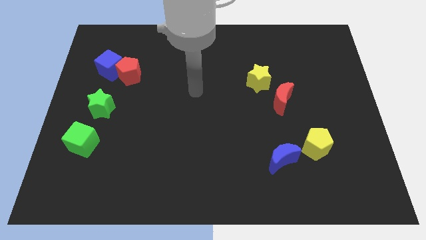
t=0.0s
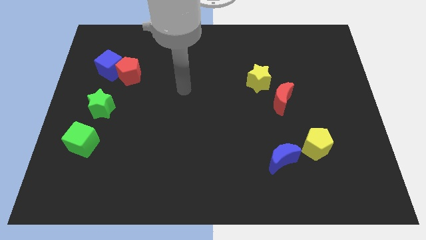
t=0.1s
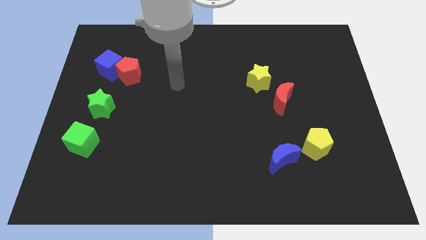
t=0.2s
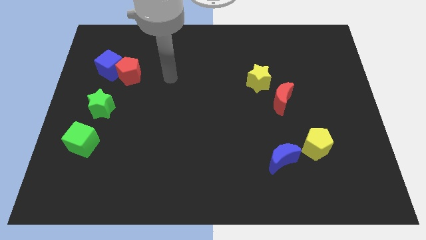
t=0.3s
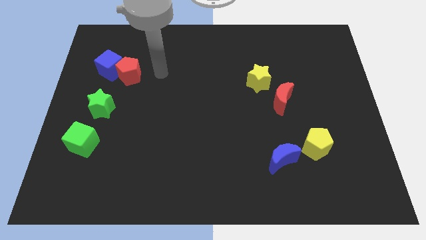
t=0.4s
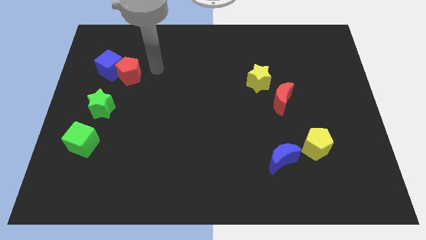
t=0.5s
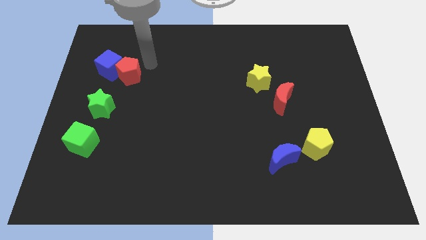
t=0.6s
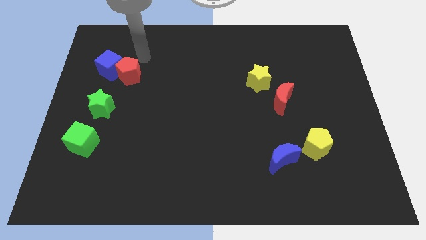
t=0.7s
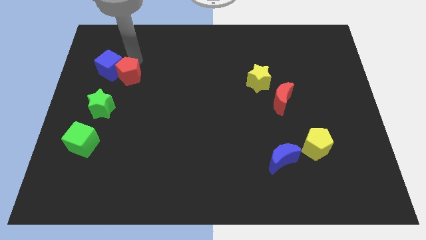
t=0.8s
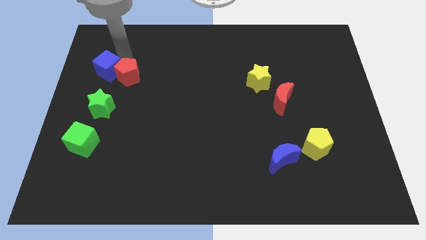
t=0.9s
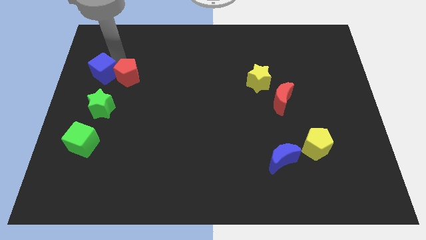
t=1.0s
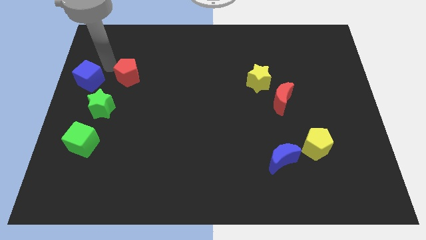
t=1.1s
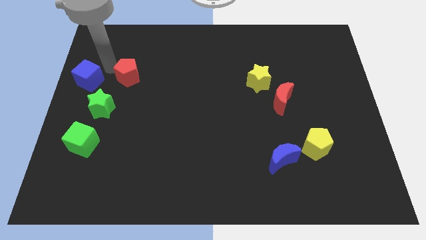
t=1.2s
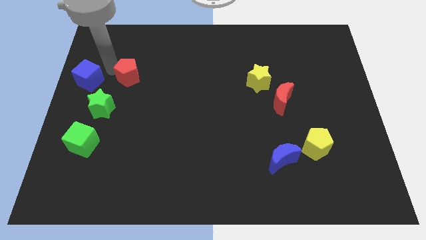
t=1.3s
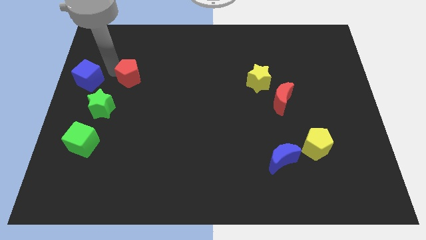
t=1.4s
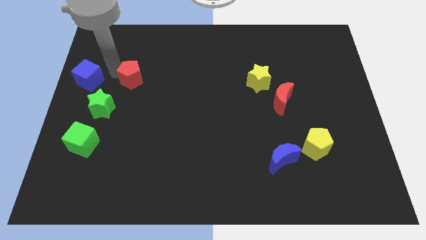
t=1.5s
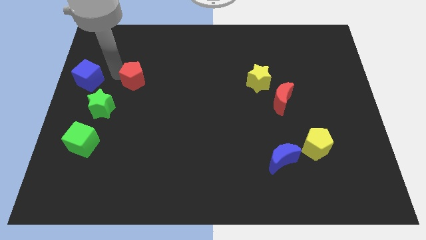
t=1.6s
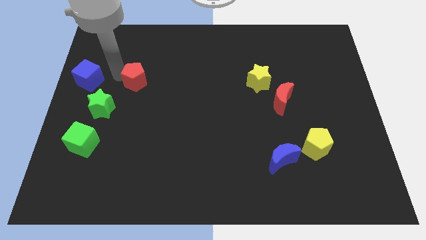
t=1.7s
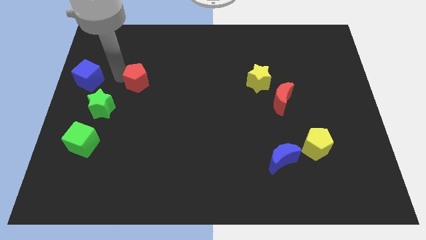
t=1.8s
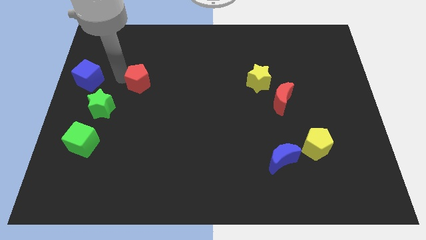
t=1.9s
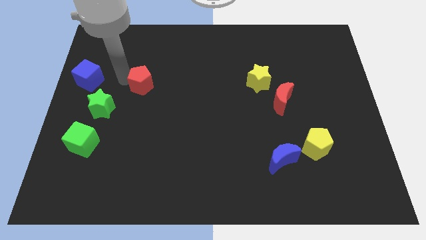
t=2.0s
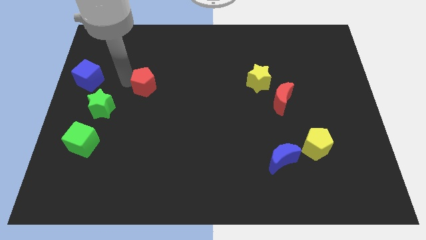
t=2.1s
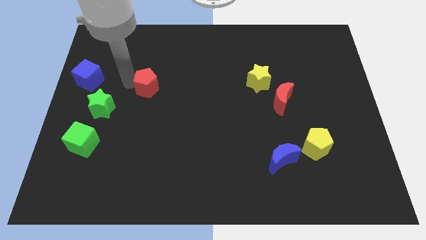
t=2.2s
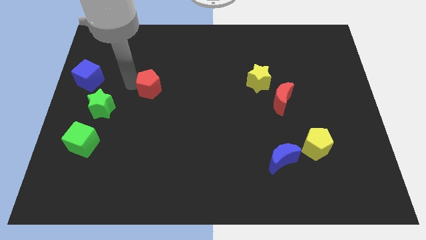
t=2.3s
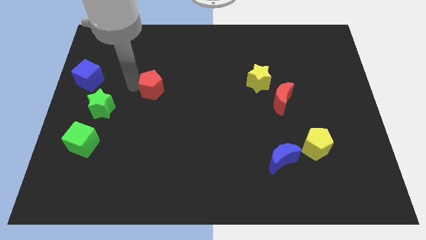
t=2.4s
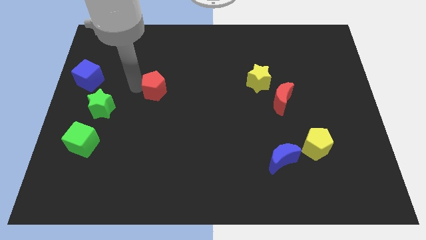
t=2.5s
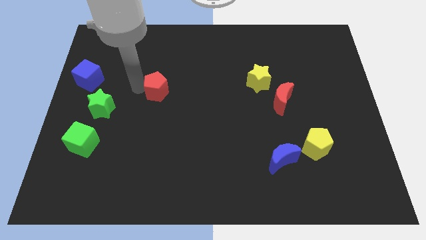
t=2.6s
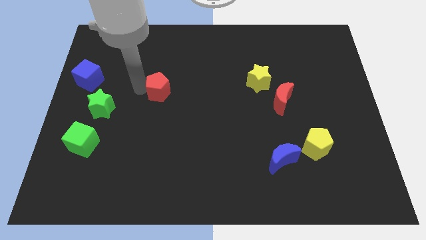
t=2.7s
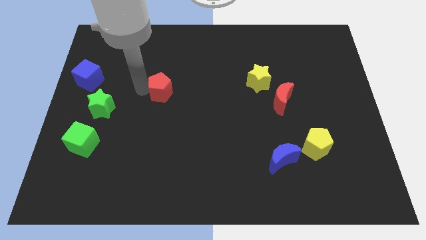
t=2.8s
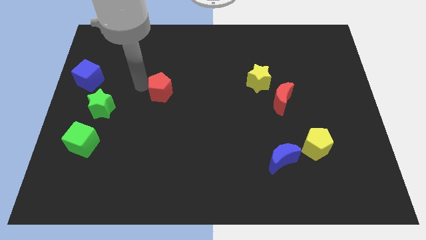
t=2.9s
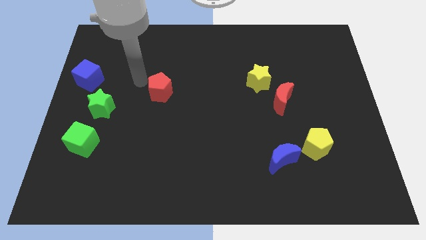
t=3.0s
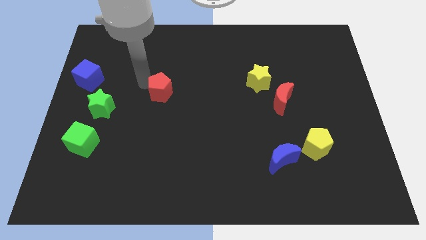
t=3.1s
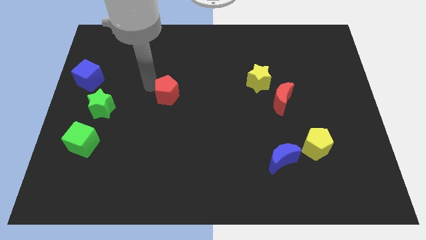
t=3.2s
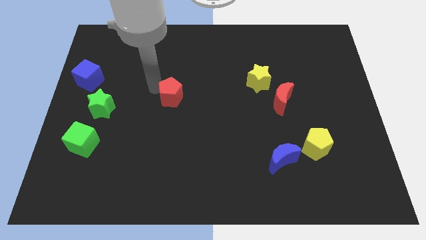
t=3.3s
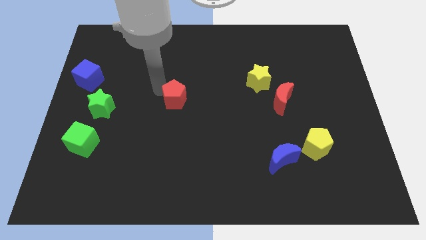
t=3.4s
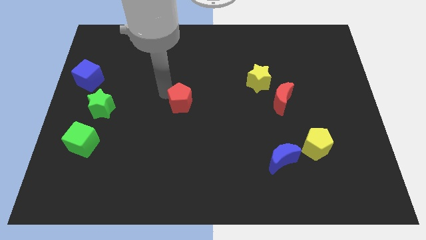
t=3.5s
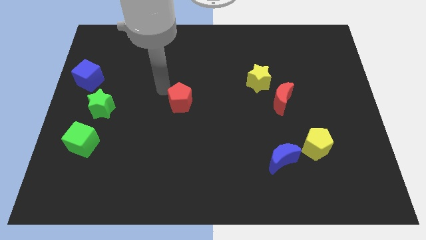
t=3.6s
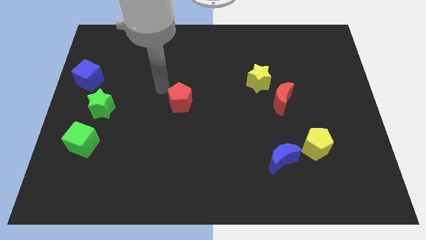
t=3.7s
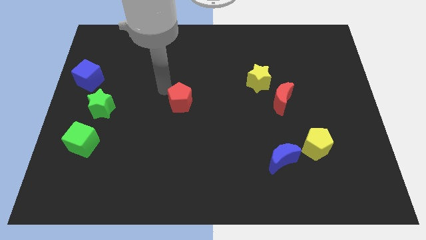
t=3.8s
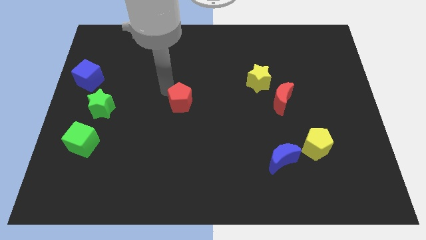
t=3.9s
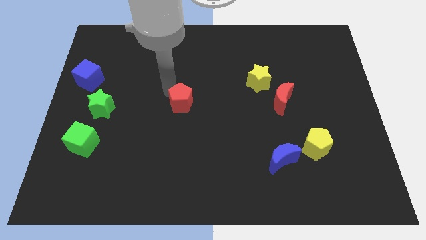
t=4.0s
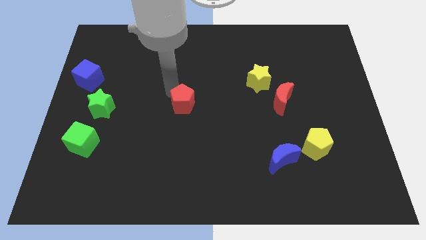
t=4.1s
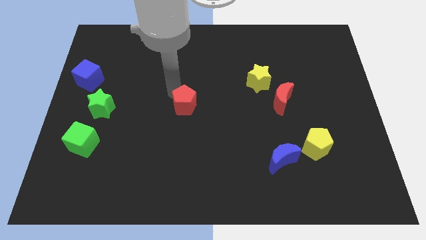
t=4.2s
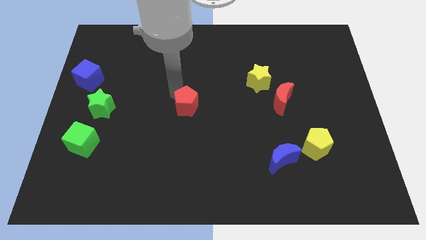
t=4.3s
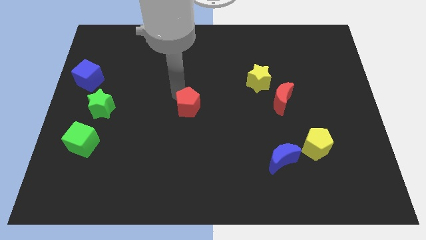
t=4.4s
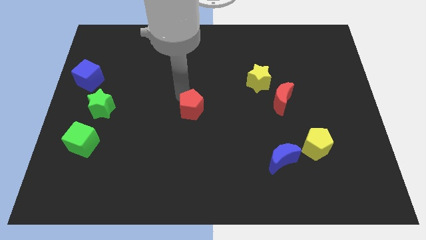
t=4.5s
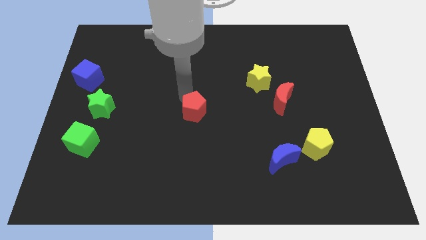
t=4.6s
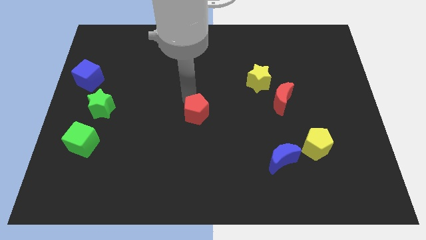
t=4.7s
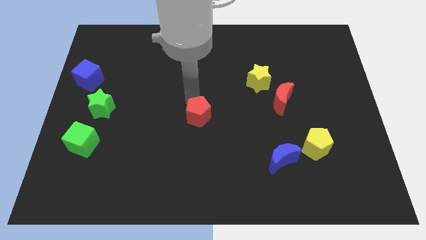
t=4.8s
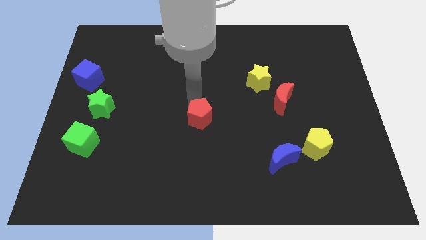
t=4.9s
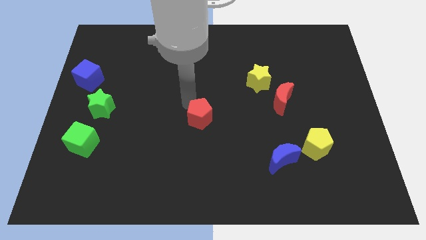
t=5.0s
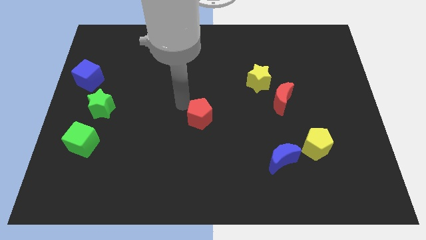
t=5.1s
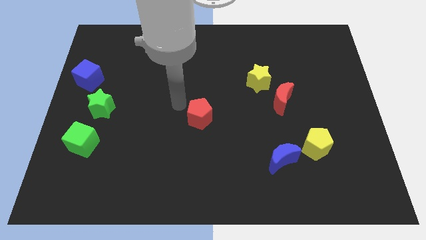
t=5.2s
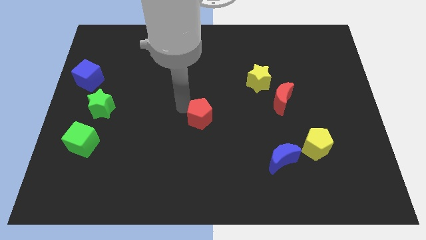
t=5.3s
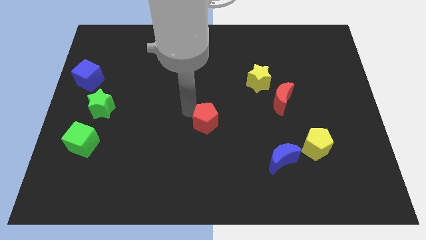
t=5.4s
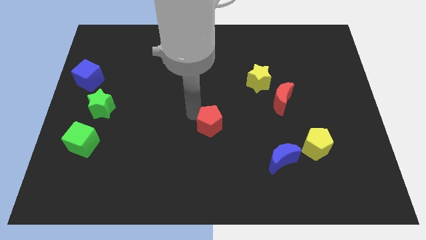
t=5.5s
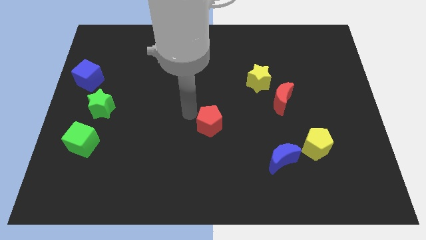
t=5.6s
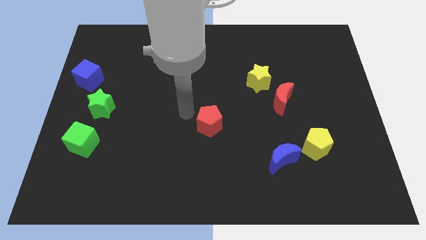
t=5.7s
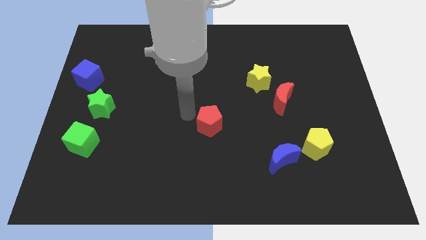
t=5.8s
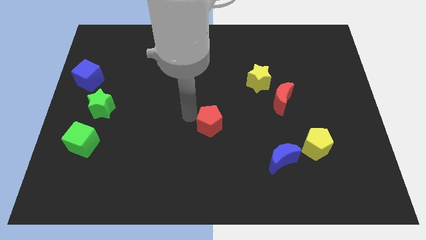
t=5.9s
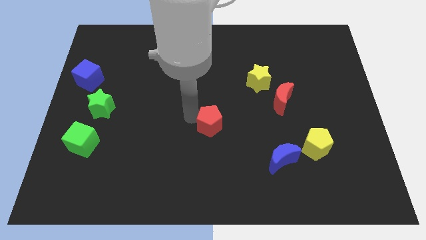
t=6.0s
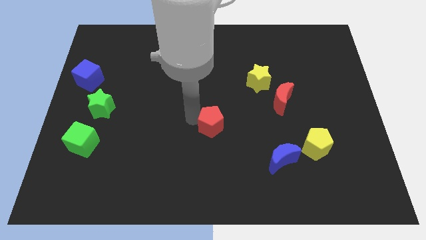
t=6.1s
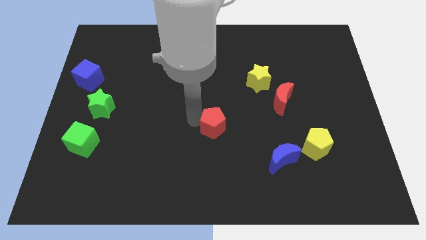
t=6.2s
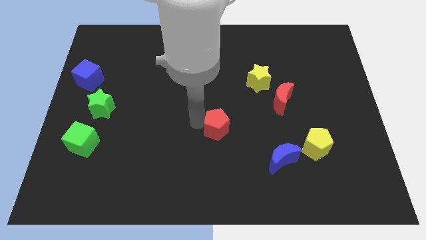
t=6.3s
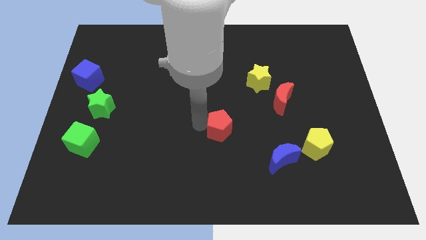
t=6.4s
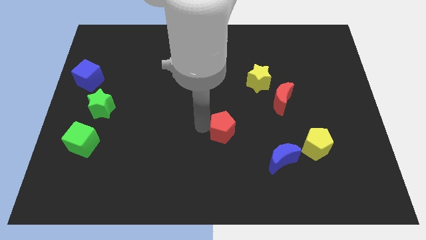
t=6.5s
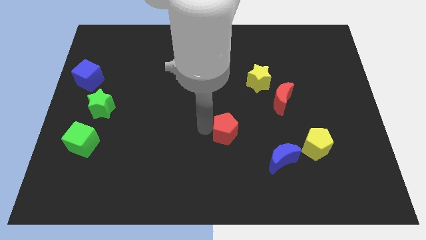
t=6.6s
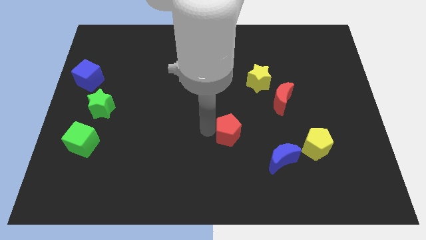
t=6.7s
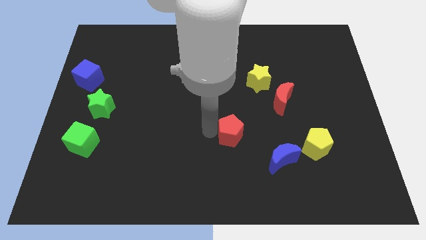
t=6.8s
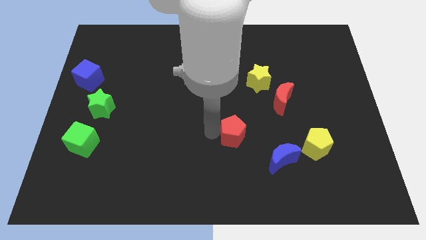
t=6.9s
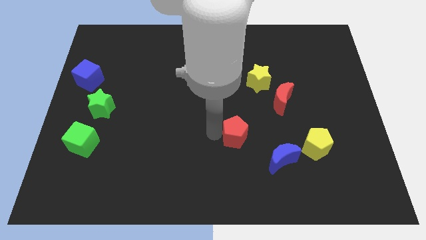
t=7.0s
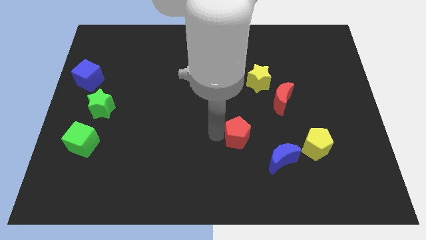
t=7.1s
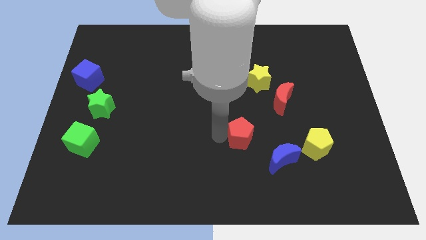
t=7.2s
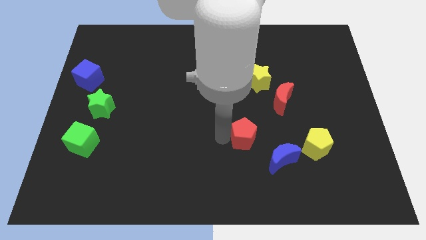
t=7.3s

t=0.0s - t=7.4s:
put the red pentagon just left of the yellow pentagon
